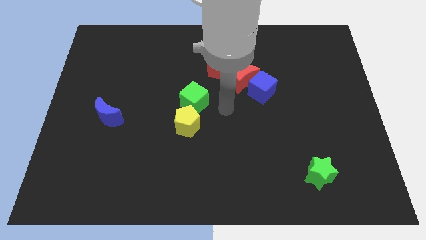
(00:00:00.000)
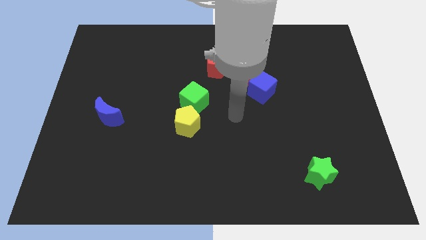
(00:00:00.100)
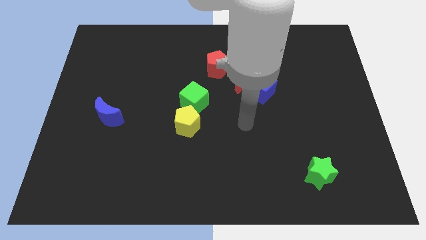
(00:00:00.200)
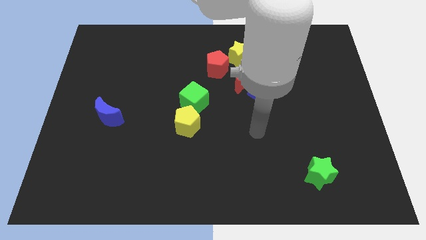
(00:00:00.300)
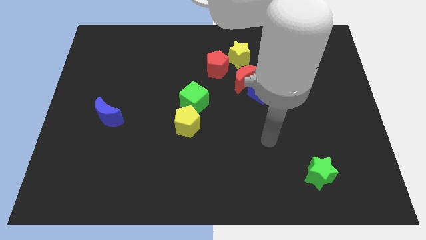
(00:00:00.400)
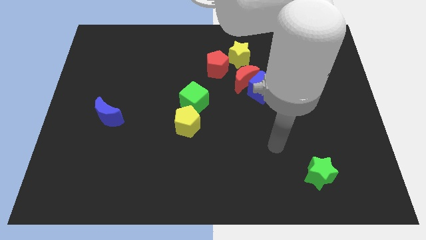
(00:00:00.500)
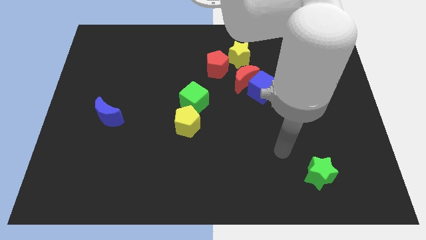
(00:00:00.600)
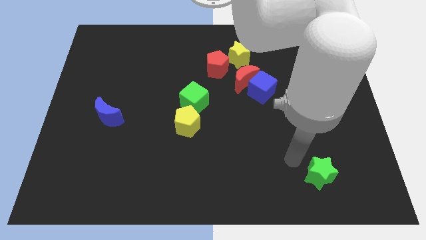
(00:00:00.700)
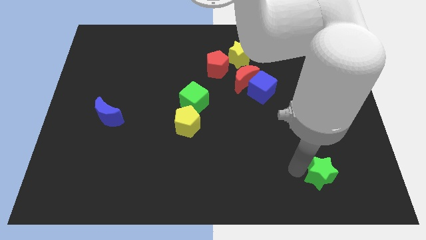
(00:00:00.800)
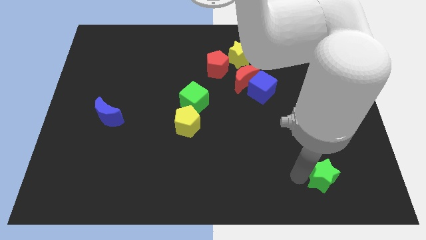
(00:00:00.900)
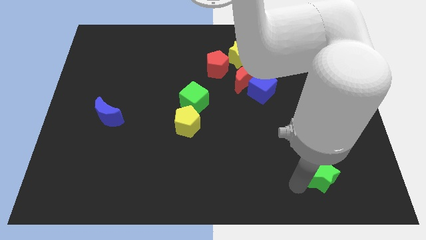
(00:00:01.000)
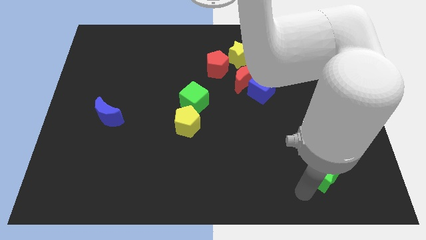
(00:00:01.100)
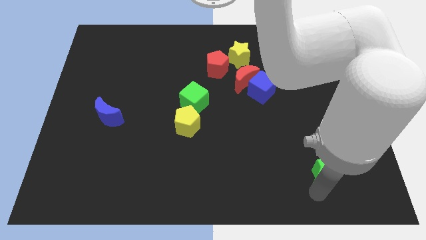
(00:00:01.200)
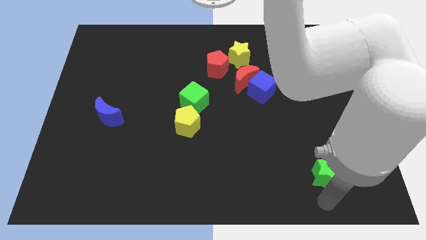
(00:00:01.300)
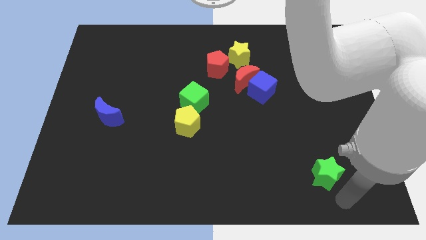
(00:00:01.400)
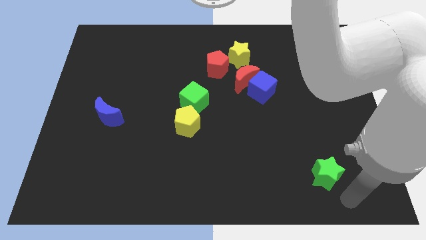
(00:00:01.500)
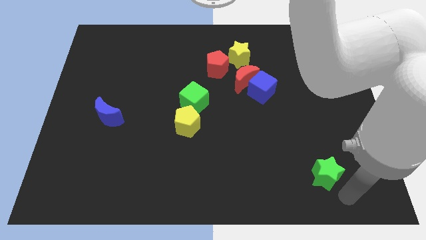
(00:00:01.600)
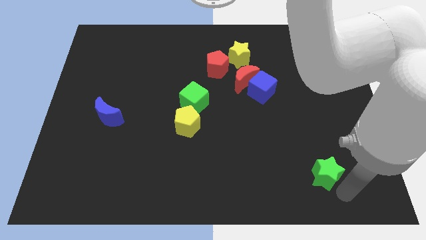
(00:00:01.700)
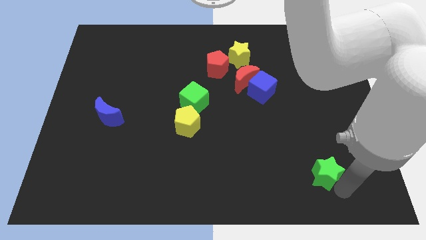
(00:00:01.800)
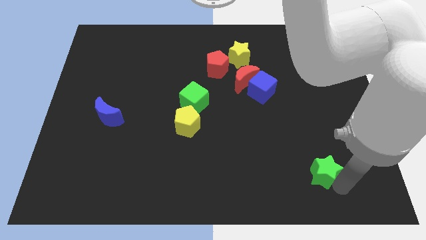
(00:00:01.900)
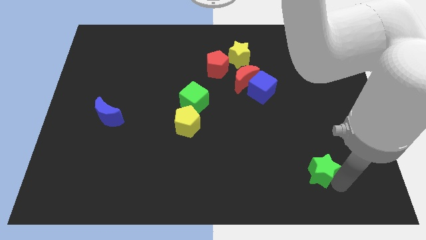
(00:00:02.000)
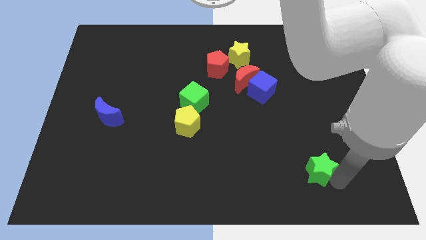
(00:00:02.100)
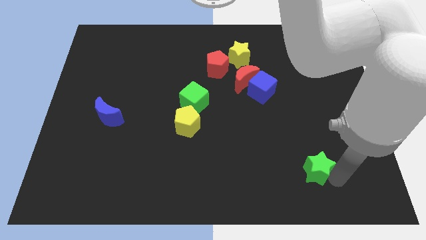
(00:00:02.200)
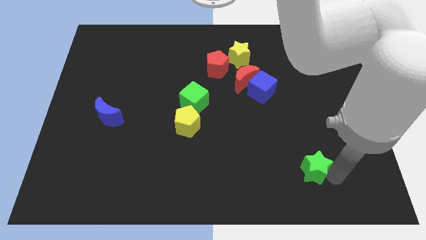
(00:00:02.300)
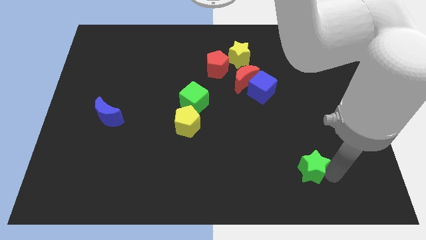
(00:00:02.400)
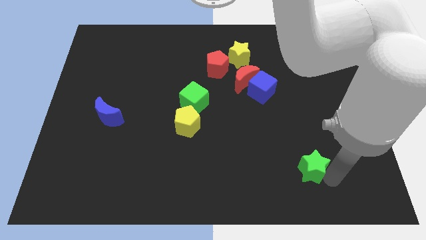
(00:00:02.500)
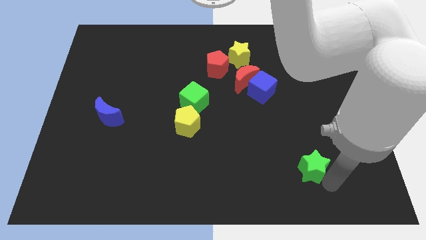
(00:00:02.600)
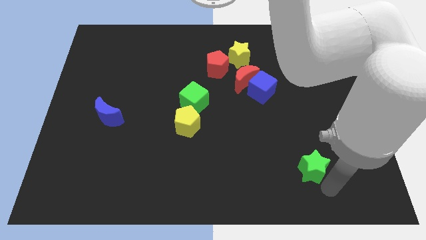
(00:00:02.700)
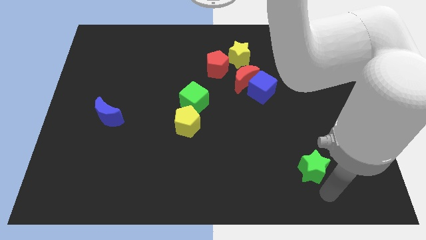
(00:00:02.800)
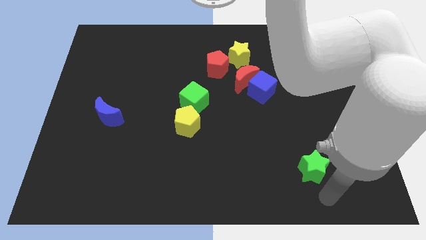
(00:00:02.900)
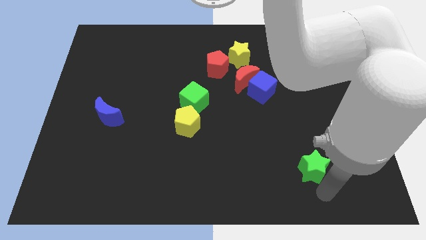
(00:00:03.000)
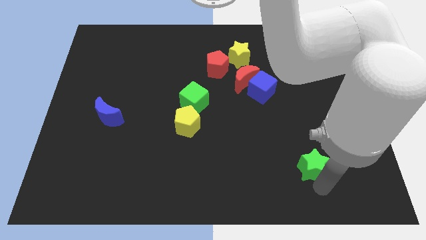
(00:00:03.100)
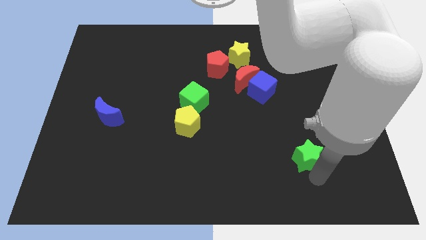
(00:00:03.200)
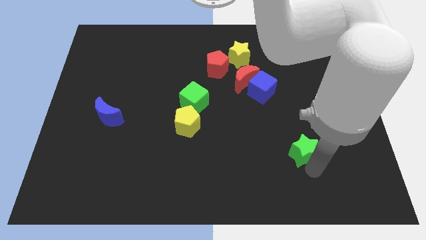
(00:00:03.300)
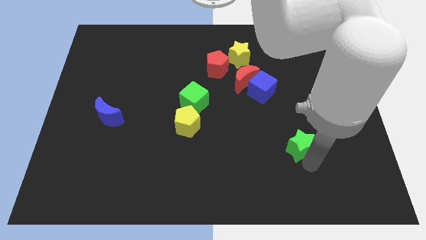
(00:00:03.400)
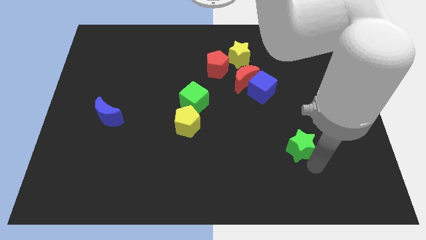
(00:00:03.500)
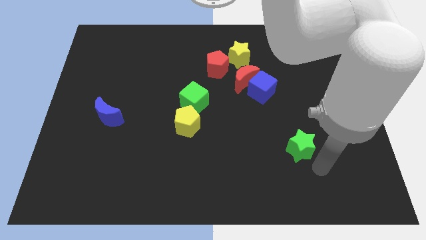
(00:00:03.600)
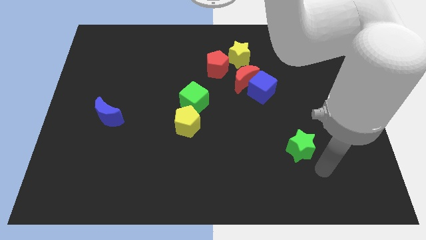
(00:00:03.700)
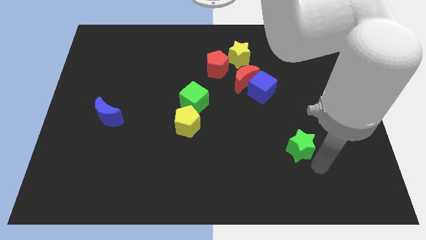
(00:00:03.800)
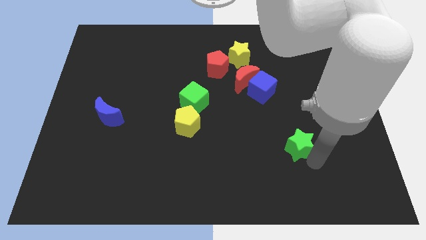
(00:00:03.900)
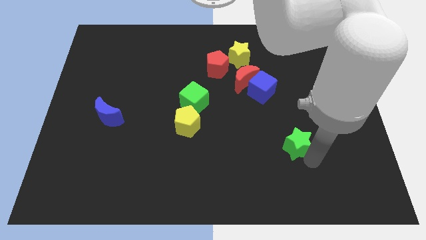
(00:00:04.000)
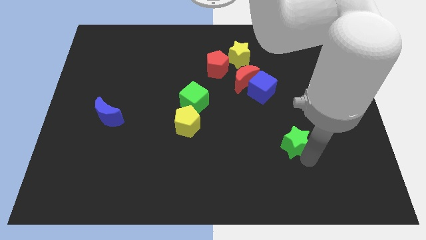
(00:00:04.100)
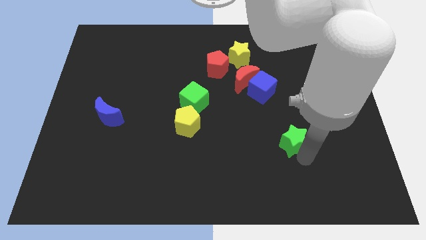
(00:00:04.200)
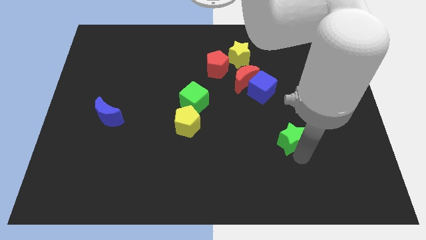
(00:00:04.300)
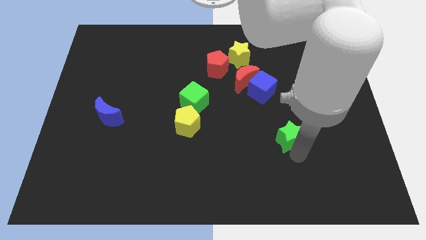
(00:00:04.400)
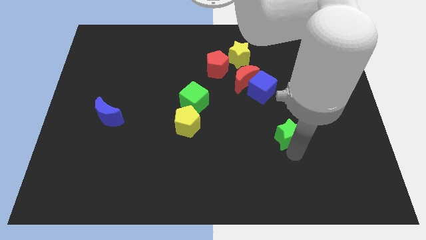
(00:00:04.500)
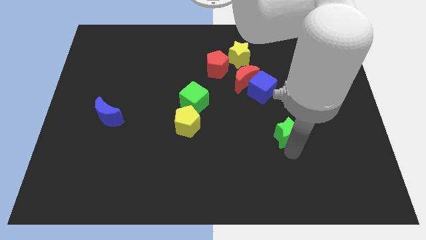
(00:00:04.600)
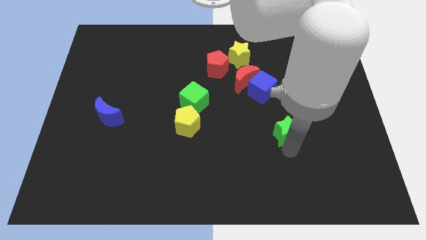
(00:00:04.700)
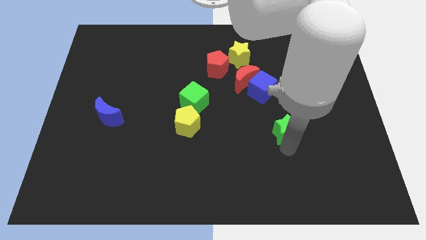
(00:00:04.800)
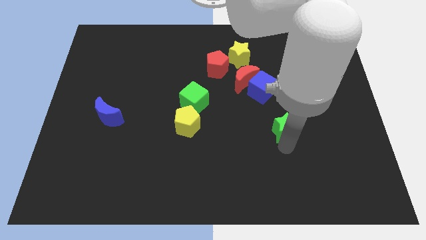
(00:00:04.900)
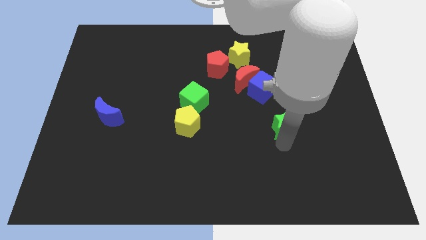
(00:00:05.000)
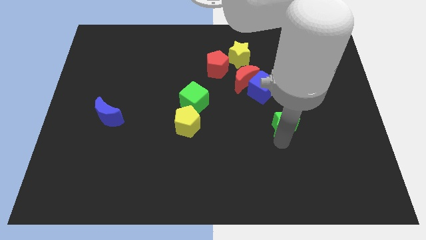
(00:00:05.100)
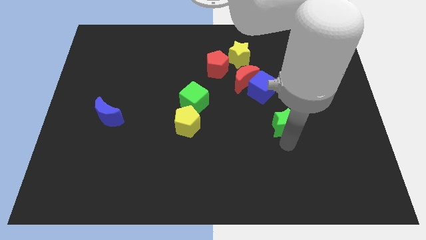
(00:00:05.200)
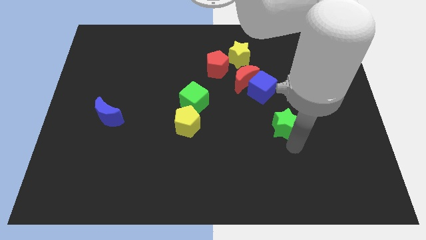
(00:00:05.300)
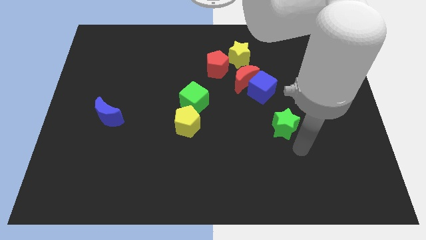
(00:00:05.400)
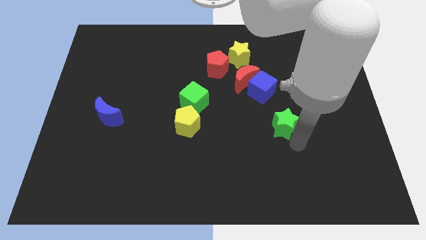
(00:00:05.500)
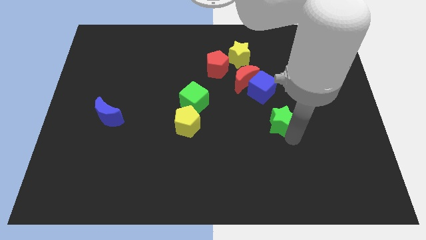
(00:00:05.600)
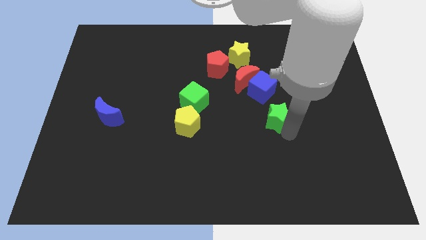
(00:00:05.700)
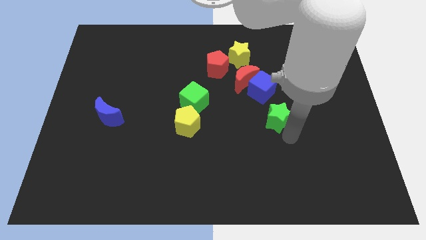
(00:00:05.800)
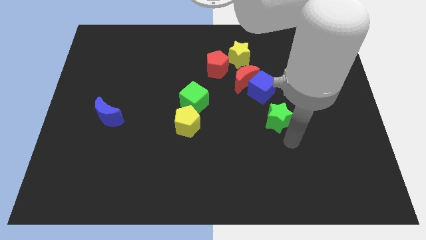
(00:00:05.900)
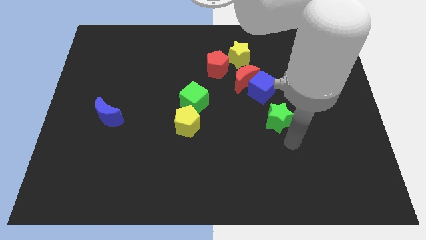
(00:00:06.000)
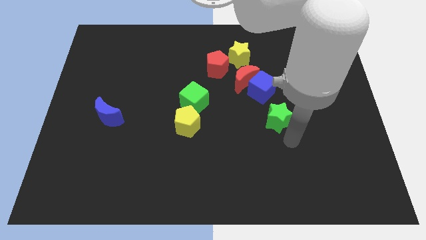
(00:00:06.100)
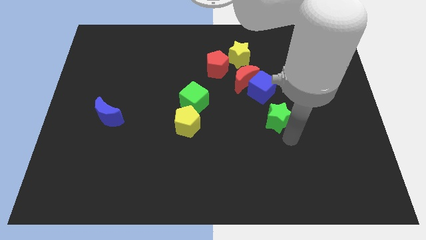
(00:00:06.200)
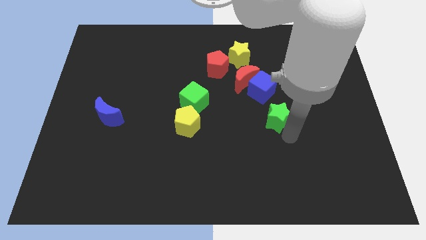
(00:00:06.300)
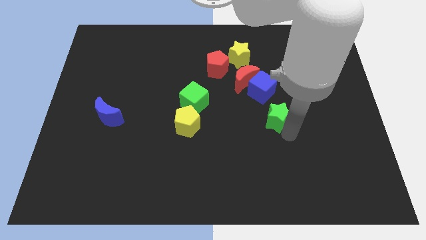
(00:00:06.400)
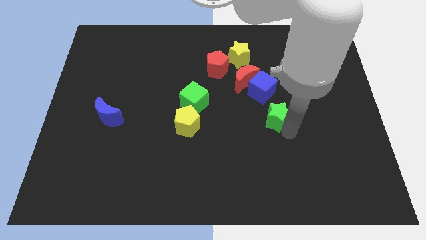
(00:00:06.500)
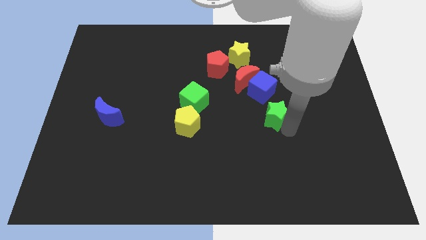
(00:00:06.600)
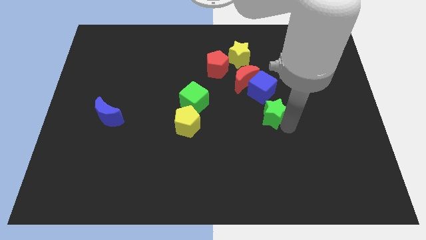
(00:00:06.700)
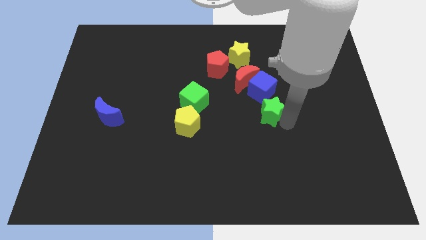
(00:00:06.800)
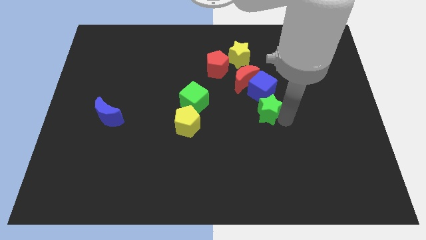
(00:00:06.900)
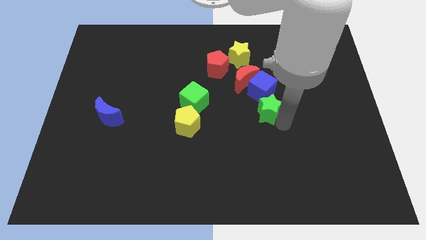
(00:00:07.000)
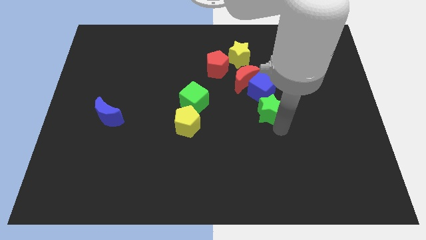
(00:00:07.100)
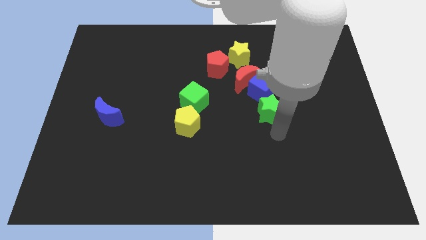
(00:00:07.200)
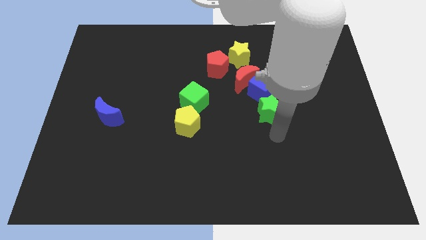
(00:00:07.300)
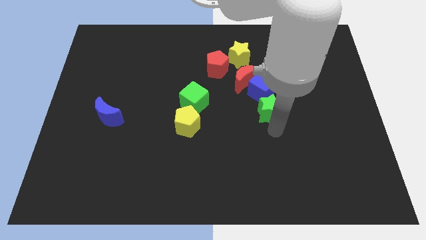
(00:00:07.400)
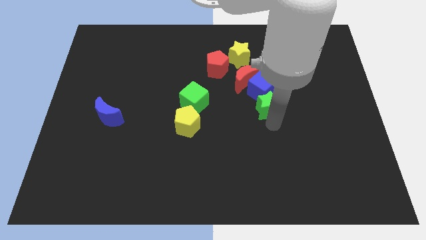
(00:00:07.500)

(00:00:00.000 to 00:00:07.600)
push the green star to the blue cube
